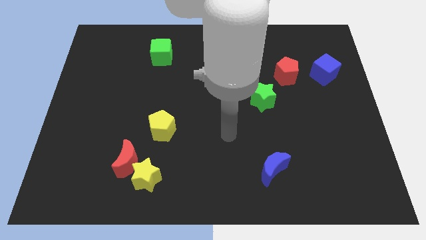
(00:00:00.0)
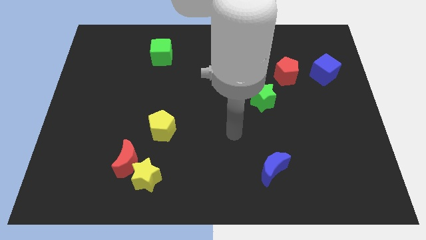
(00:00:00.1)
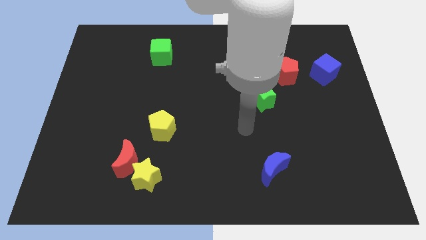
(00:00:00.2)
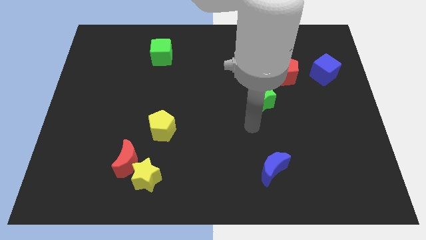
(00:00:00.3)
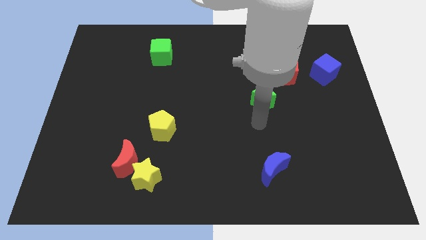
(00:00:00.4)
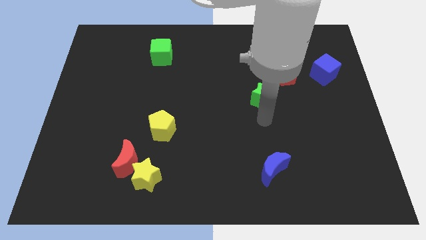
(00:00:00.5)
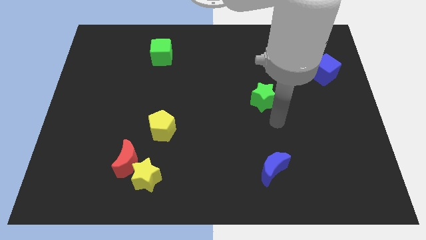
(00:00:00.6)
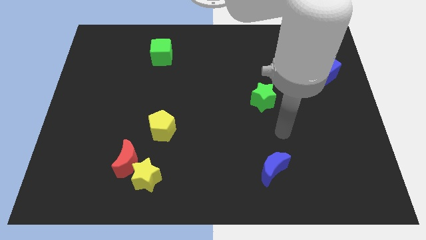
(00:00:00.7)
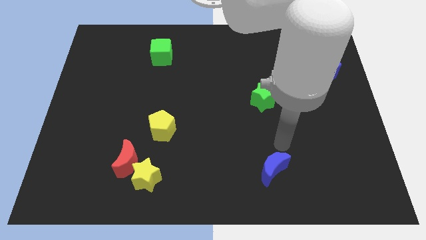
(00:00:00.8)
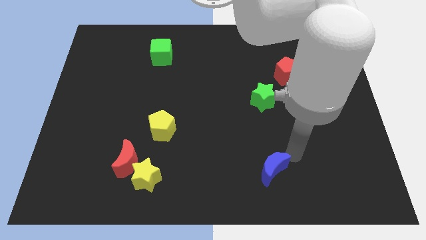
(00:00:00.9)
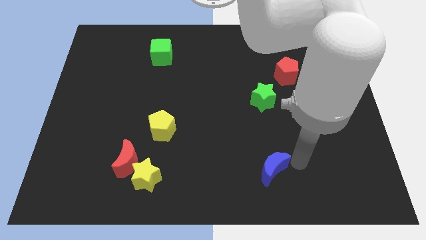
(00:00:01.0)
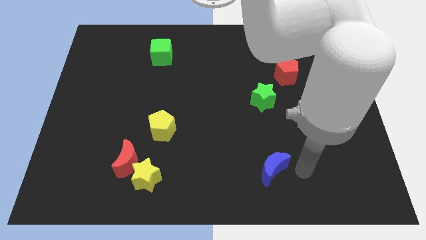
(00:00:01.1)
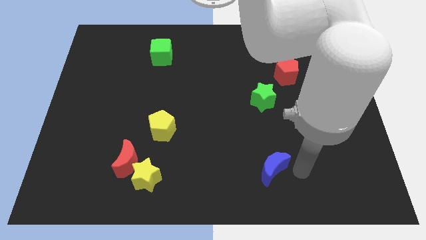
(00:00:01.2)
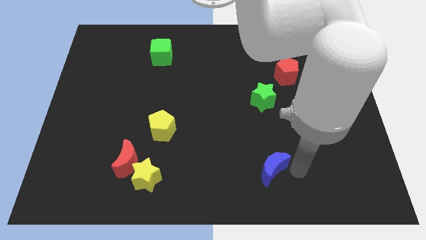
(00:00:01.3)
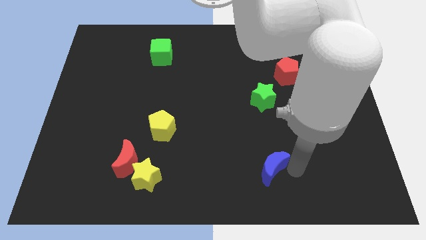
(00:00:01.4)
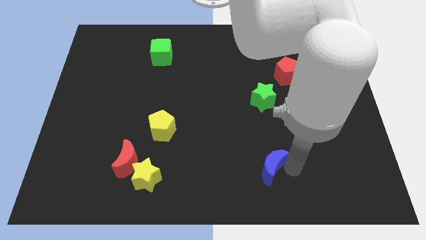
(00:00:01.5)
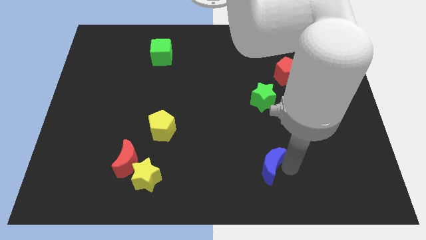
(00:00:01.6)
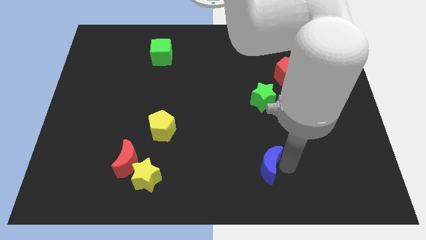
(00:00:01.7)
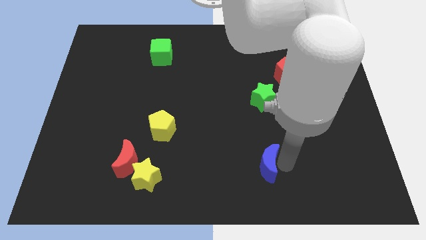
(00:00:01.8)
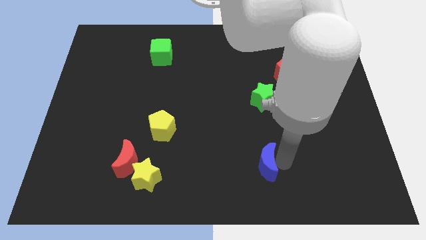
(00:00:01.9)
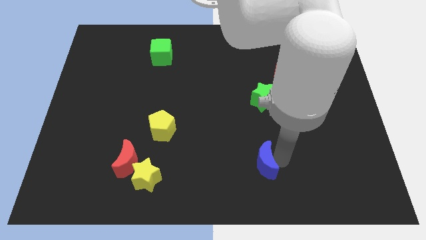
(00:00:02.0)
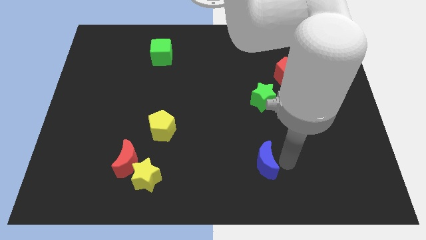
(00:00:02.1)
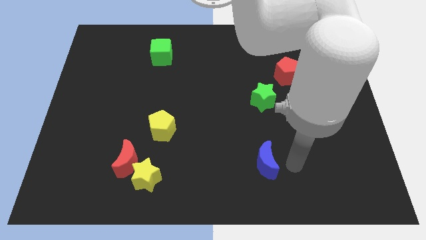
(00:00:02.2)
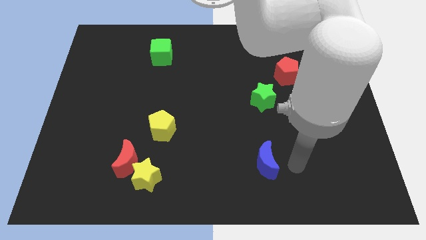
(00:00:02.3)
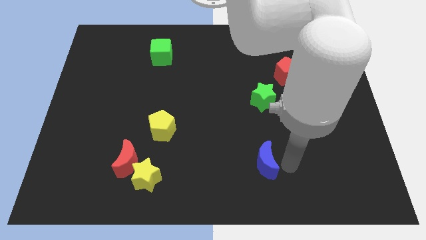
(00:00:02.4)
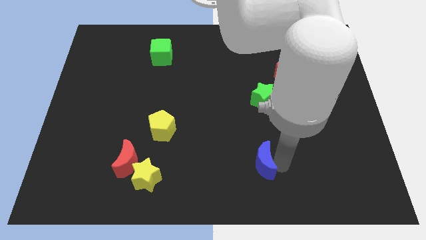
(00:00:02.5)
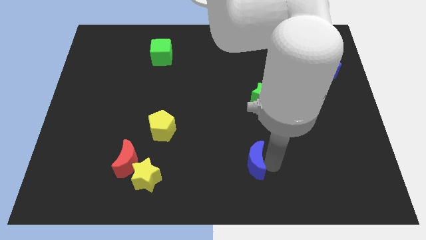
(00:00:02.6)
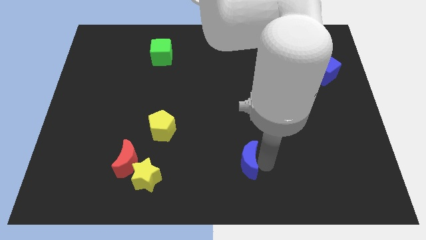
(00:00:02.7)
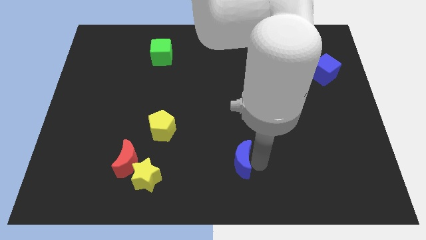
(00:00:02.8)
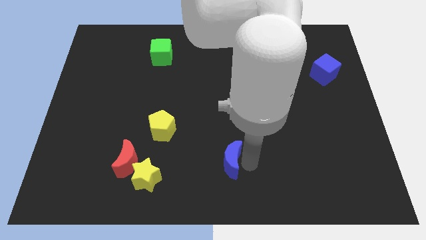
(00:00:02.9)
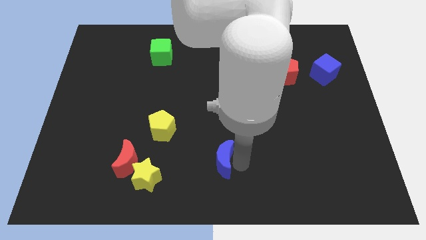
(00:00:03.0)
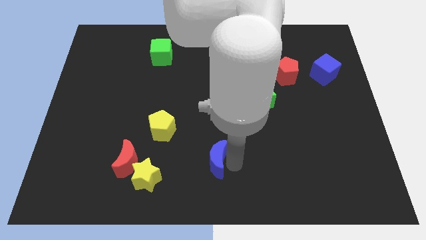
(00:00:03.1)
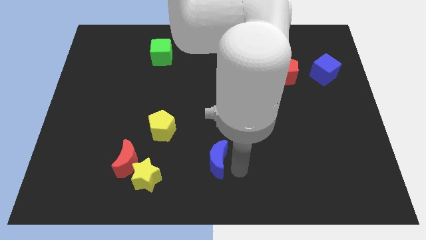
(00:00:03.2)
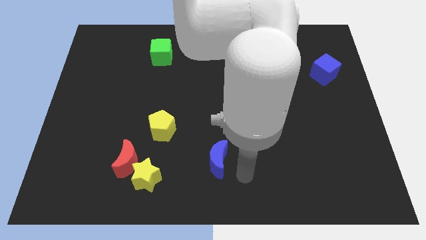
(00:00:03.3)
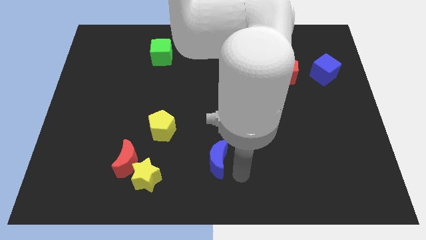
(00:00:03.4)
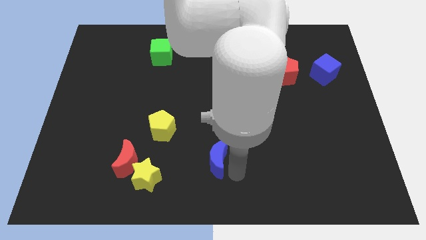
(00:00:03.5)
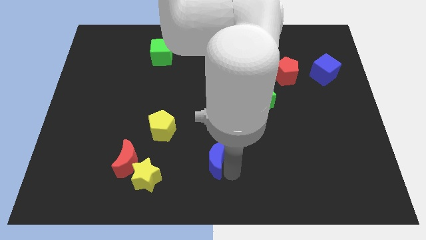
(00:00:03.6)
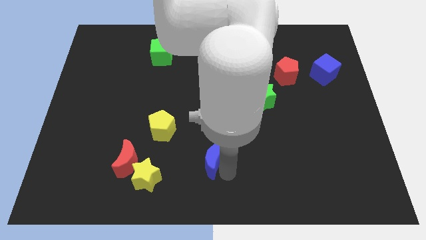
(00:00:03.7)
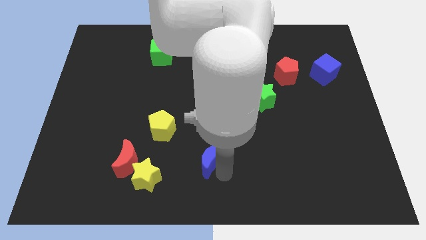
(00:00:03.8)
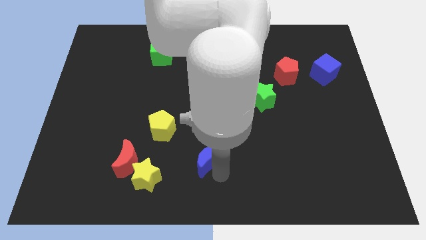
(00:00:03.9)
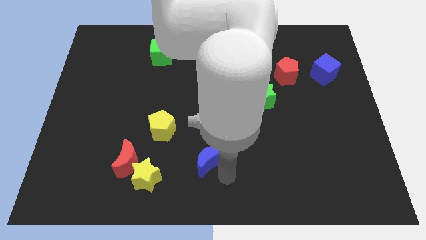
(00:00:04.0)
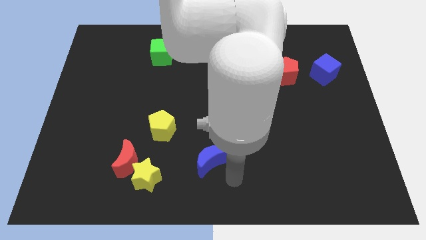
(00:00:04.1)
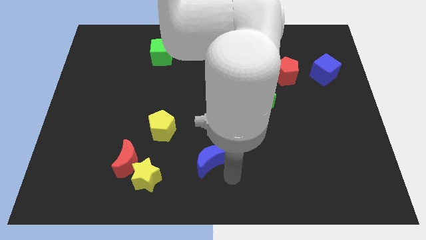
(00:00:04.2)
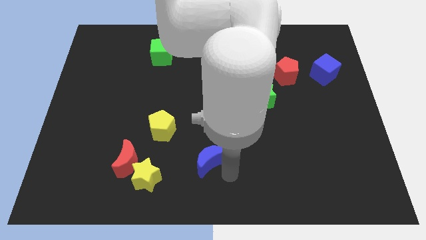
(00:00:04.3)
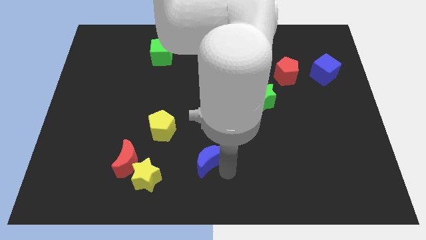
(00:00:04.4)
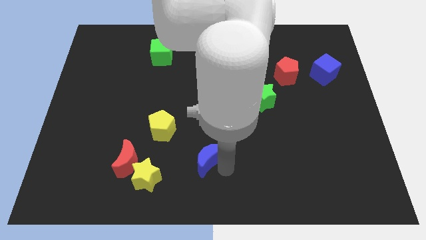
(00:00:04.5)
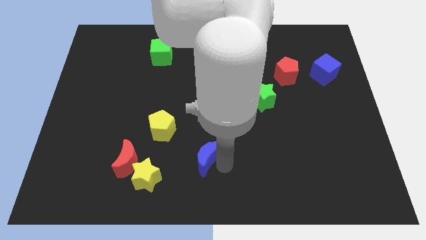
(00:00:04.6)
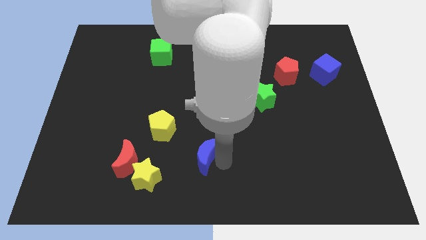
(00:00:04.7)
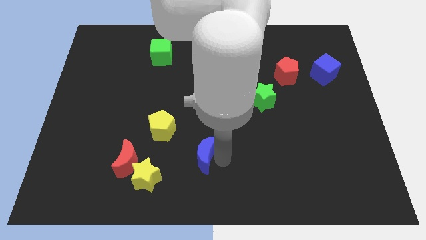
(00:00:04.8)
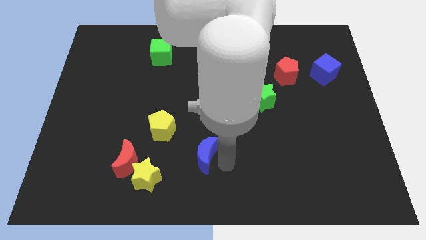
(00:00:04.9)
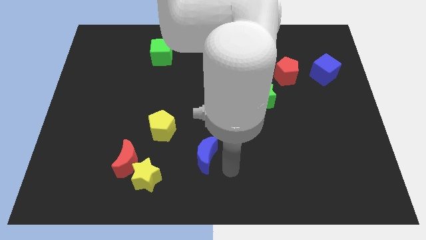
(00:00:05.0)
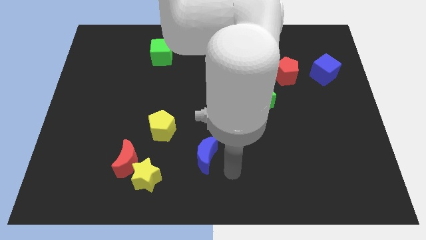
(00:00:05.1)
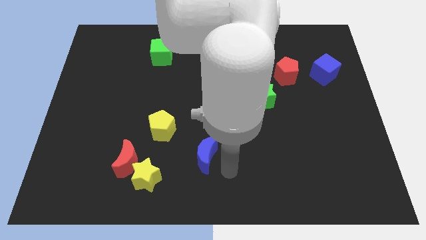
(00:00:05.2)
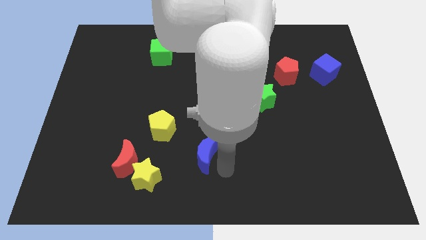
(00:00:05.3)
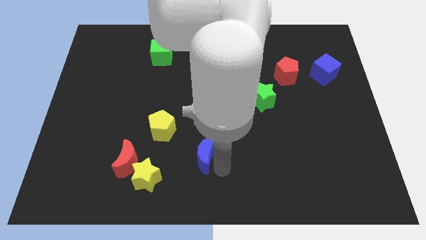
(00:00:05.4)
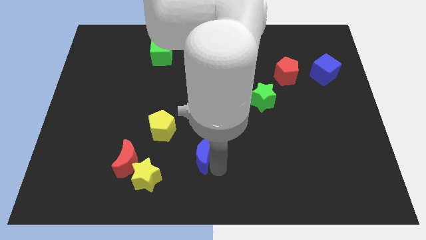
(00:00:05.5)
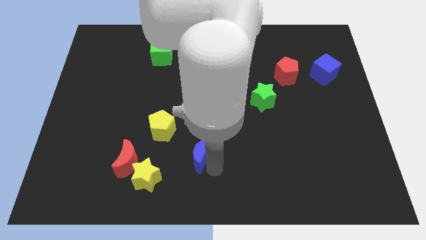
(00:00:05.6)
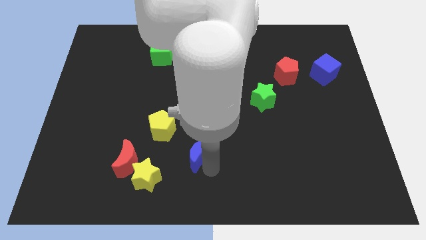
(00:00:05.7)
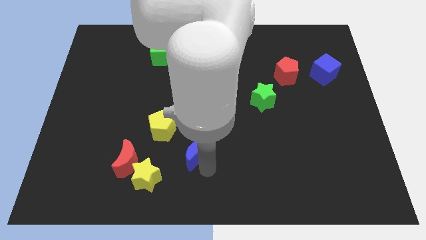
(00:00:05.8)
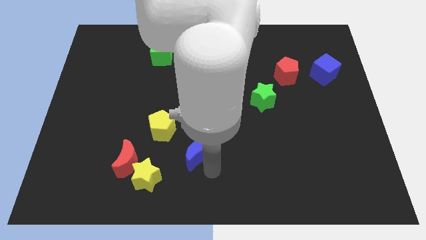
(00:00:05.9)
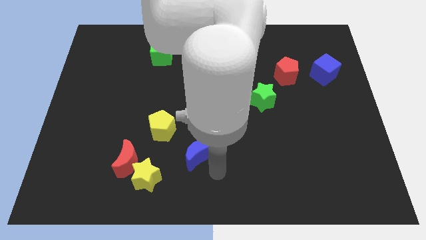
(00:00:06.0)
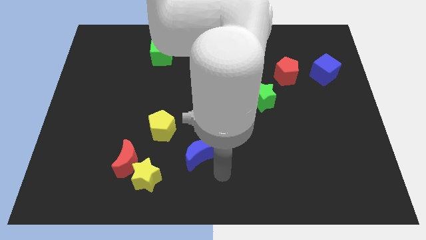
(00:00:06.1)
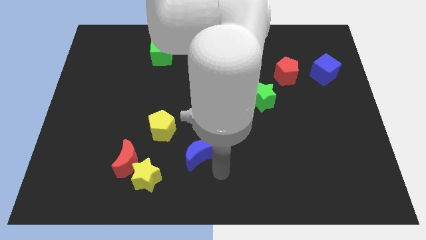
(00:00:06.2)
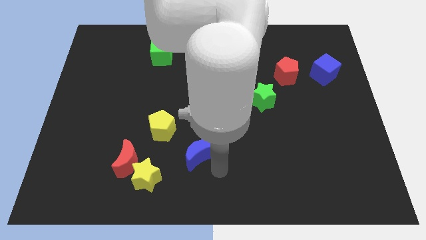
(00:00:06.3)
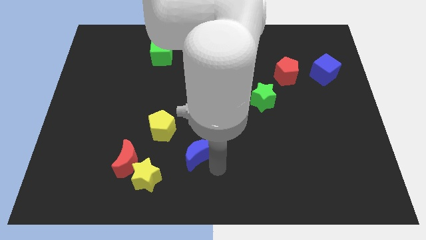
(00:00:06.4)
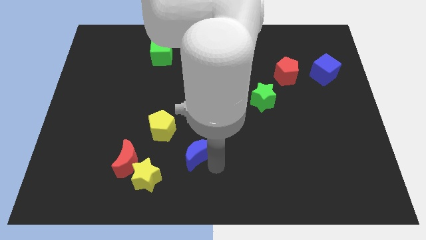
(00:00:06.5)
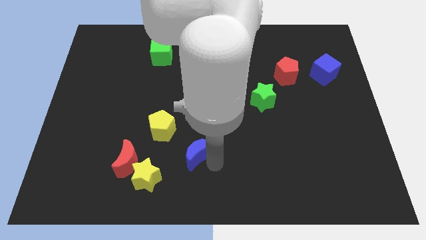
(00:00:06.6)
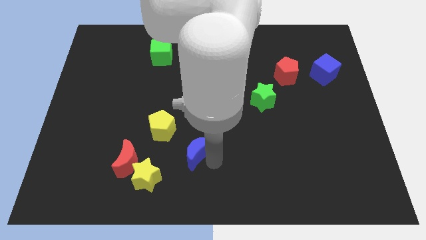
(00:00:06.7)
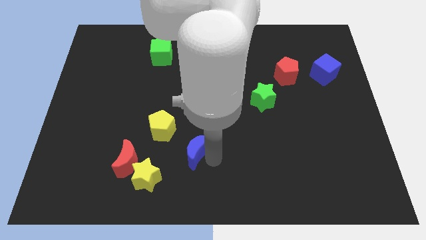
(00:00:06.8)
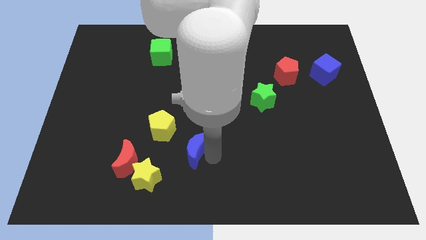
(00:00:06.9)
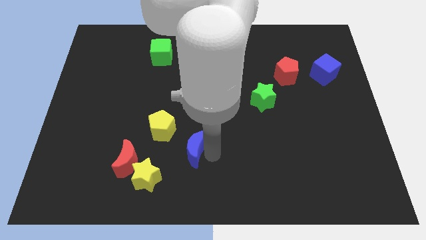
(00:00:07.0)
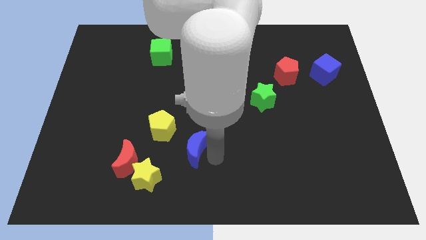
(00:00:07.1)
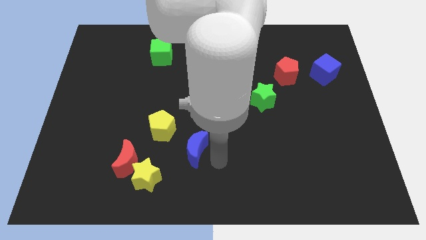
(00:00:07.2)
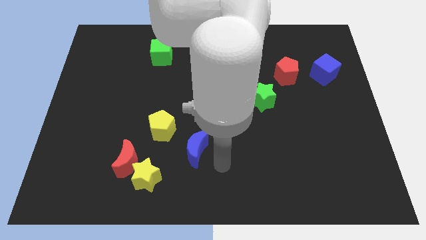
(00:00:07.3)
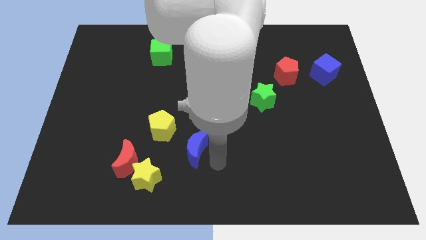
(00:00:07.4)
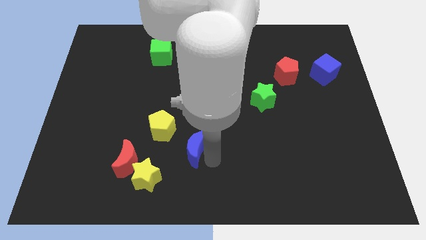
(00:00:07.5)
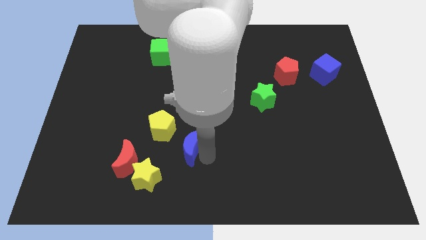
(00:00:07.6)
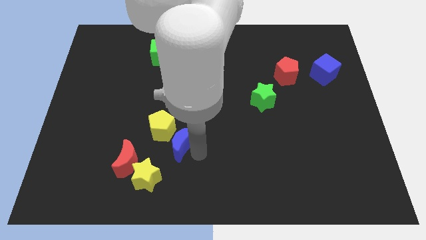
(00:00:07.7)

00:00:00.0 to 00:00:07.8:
put the blue moon to the yellow pentagon
